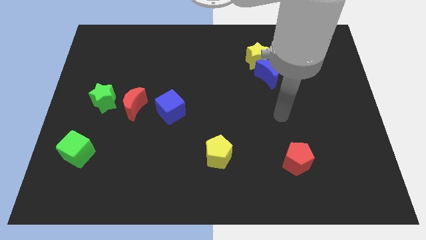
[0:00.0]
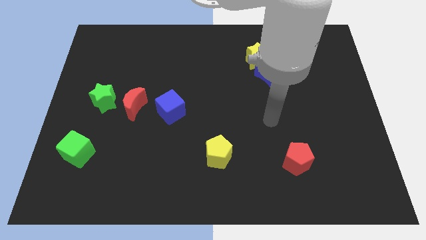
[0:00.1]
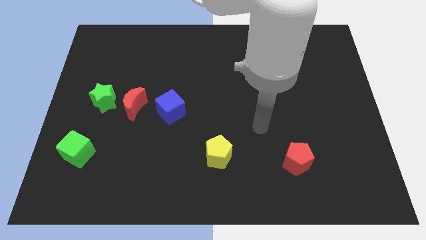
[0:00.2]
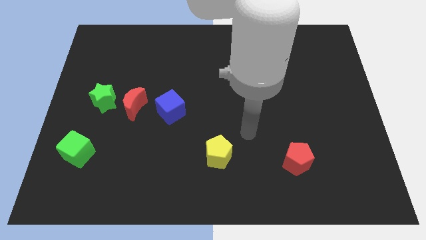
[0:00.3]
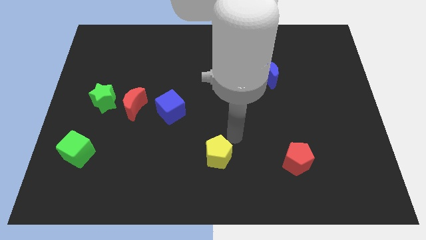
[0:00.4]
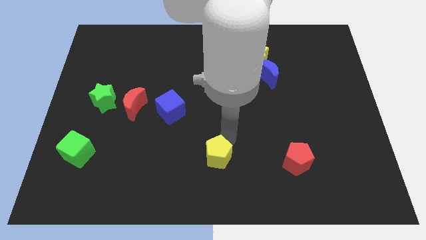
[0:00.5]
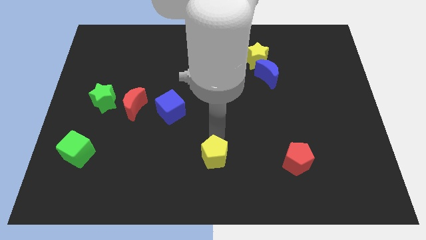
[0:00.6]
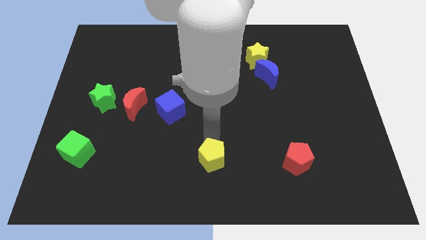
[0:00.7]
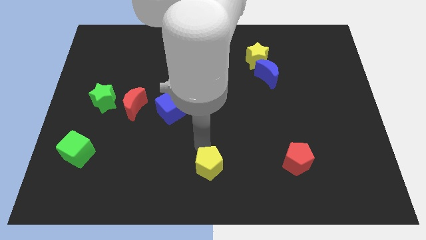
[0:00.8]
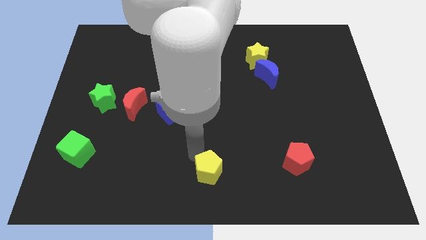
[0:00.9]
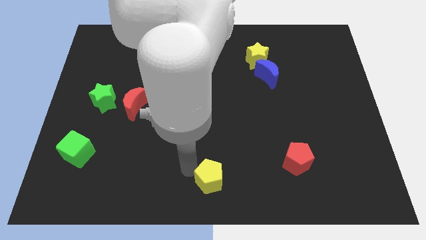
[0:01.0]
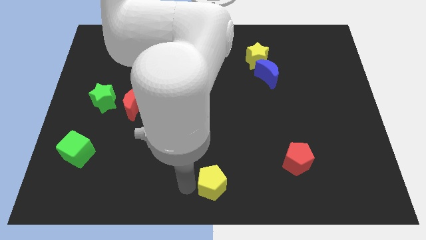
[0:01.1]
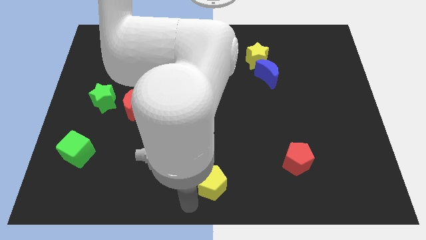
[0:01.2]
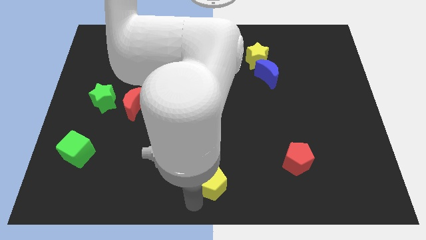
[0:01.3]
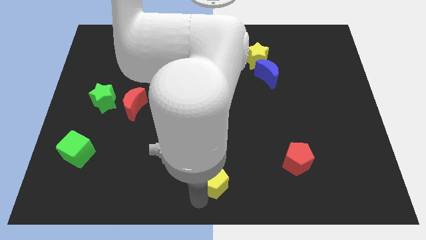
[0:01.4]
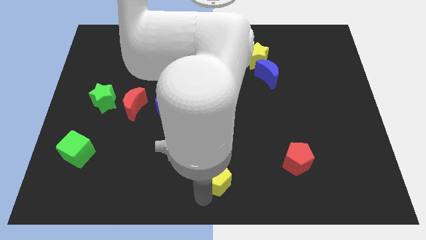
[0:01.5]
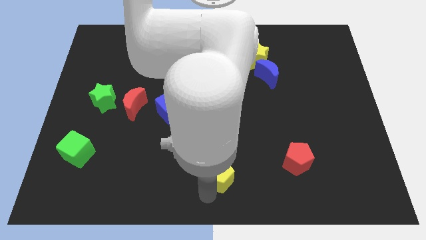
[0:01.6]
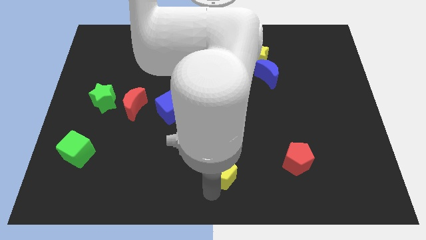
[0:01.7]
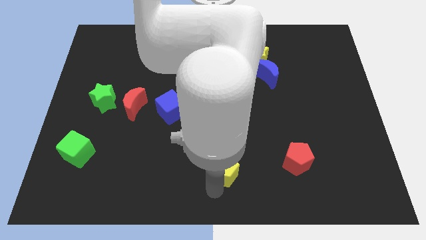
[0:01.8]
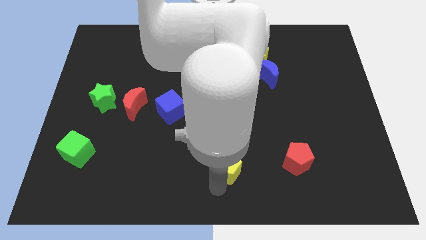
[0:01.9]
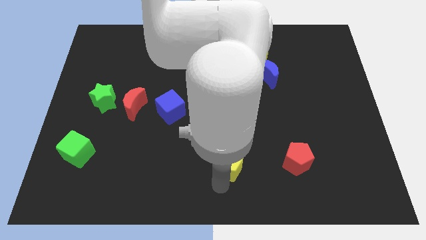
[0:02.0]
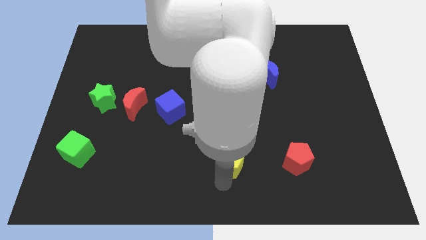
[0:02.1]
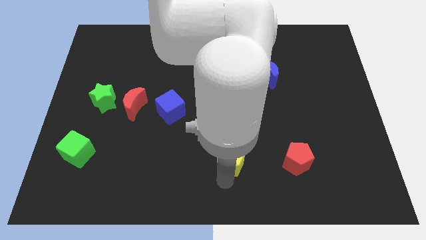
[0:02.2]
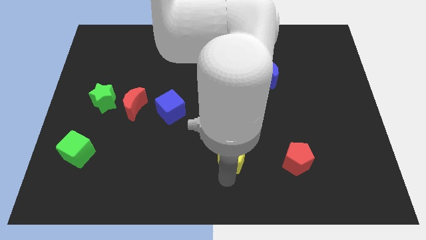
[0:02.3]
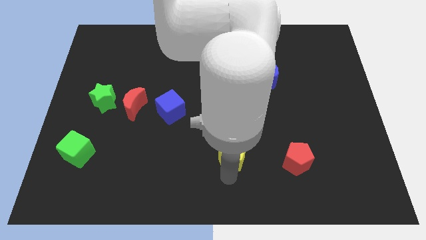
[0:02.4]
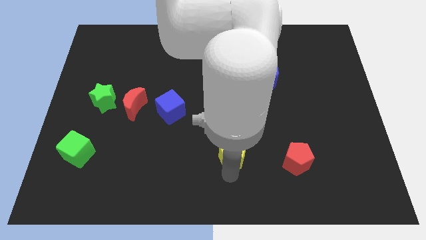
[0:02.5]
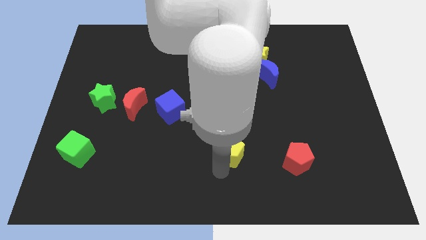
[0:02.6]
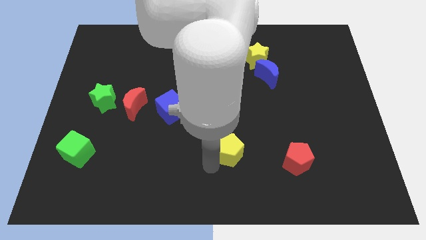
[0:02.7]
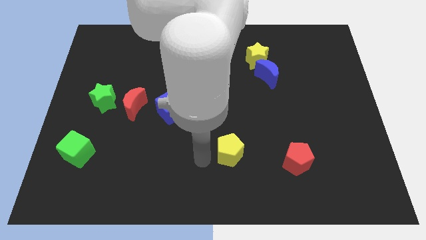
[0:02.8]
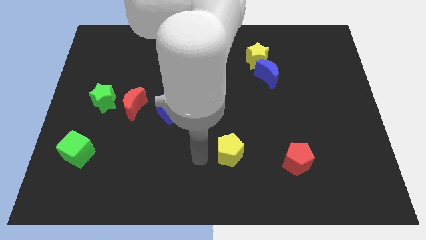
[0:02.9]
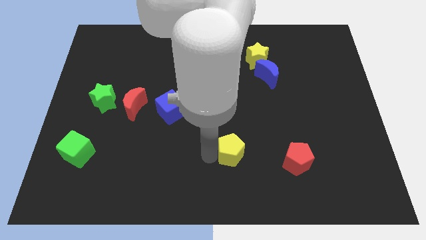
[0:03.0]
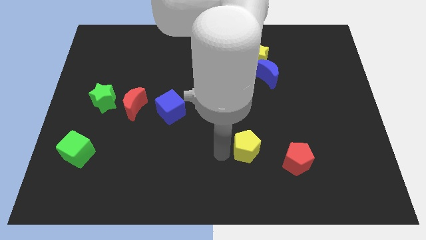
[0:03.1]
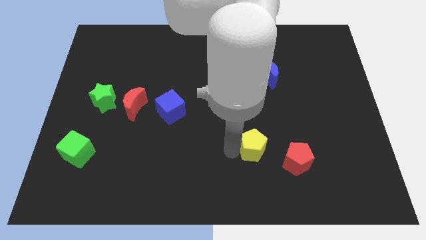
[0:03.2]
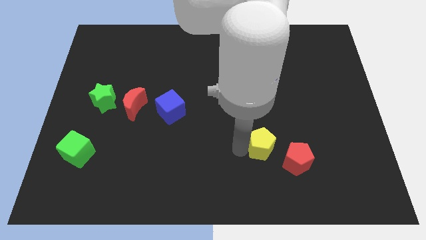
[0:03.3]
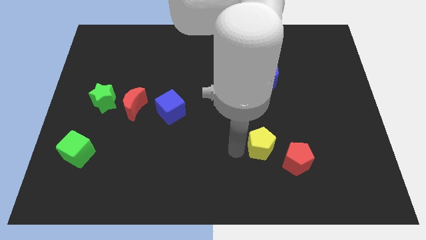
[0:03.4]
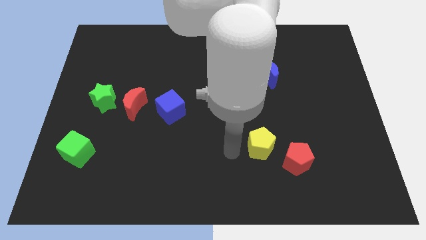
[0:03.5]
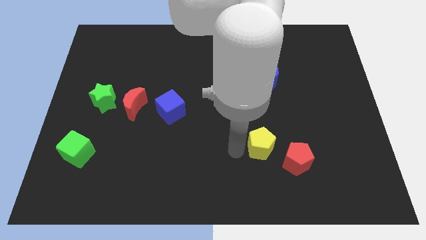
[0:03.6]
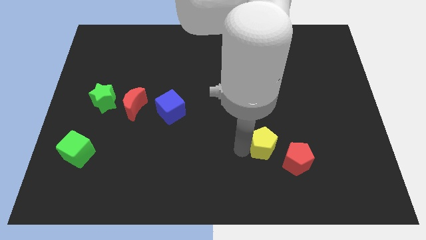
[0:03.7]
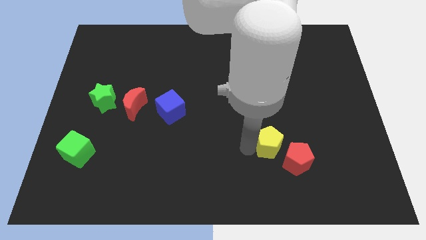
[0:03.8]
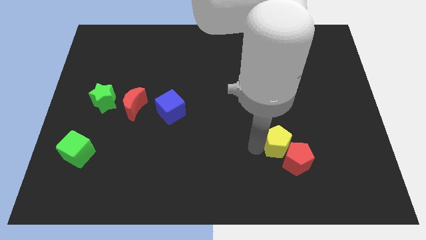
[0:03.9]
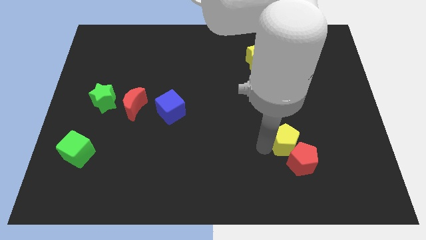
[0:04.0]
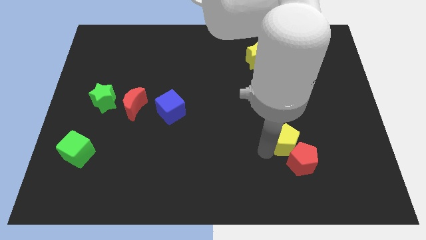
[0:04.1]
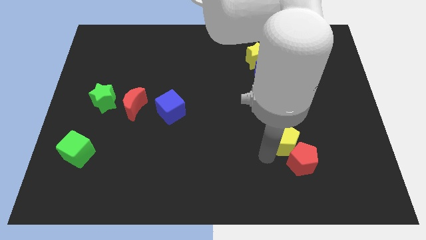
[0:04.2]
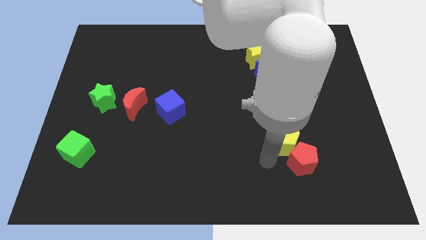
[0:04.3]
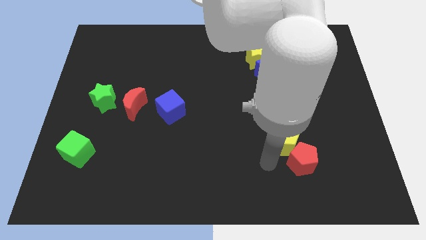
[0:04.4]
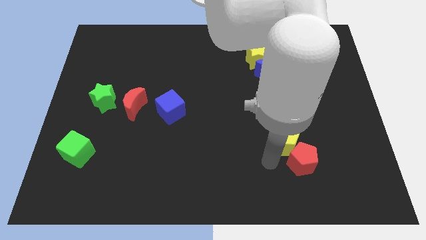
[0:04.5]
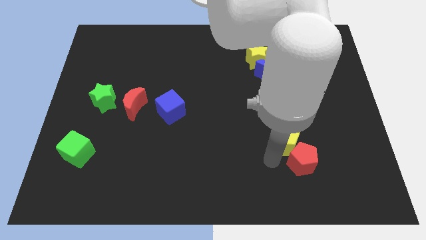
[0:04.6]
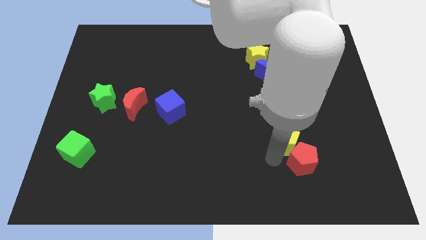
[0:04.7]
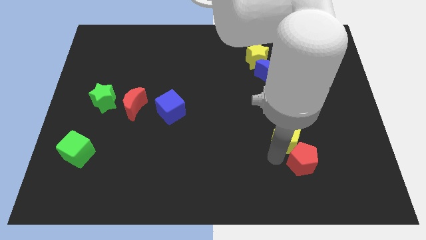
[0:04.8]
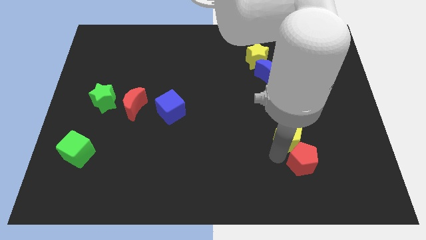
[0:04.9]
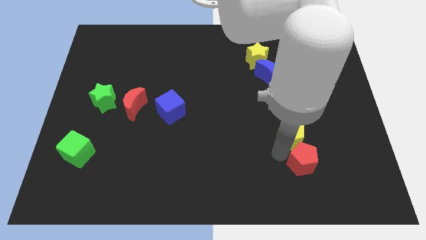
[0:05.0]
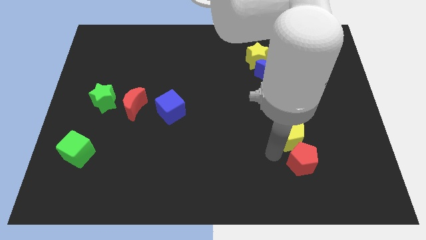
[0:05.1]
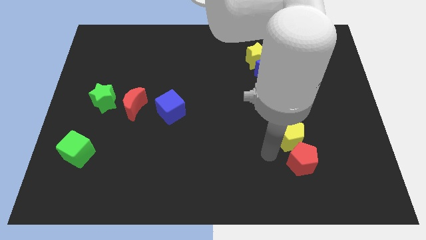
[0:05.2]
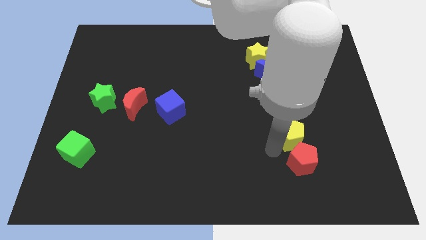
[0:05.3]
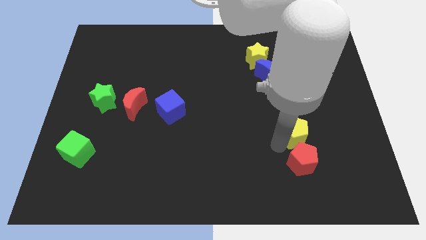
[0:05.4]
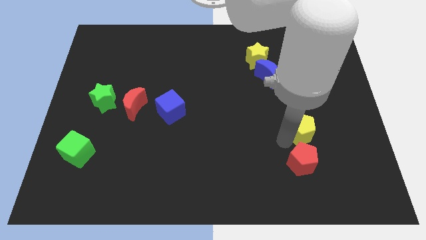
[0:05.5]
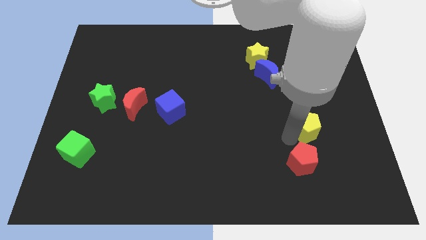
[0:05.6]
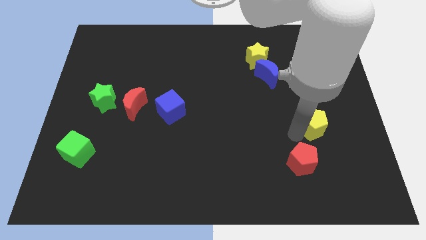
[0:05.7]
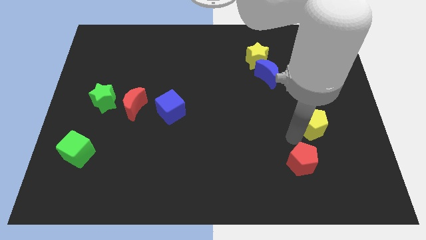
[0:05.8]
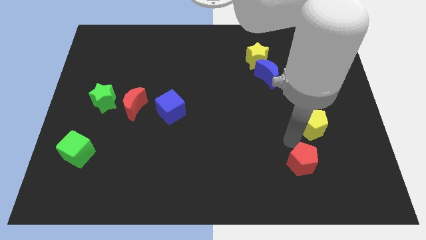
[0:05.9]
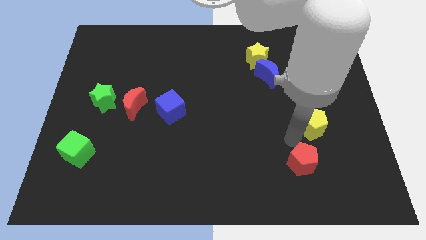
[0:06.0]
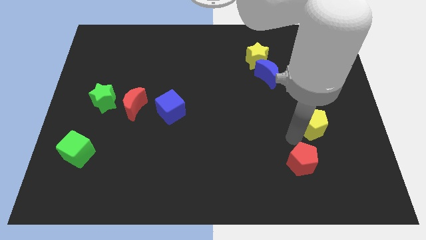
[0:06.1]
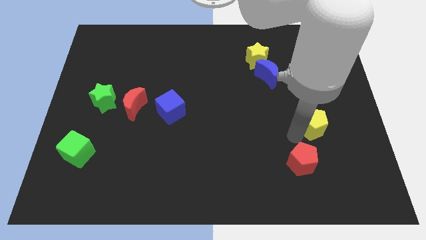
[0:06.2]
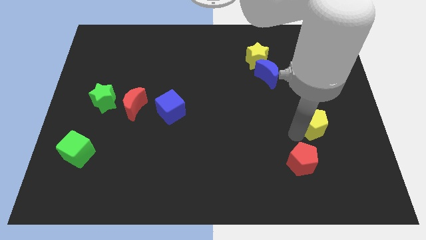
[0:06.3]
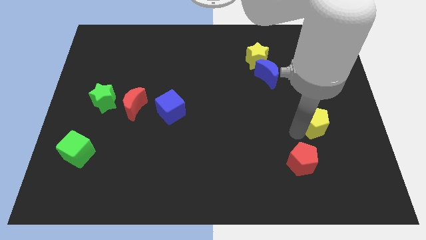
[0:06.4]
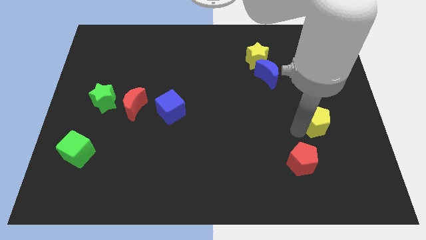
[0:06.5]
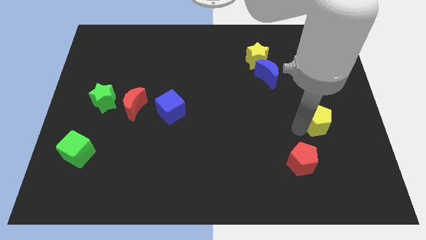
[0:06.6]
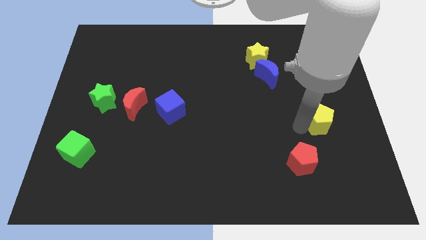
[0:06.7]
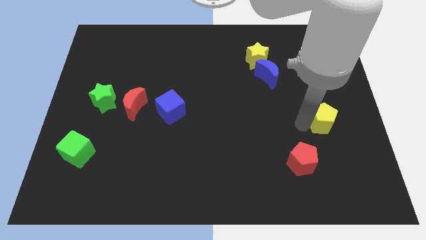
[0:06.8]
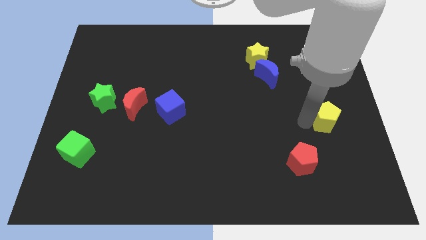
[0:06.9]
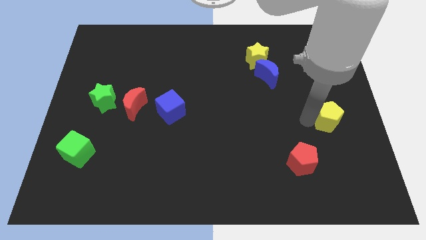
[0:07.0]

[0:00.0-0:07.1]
slide the yellow pentagon to the right side of the board
